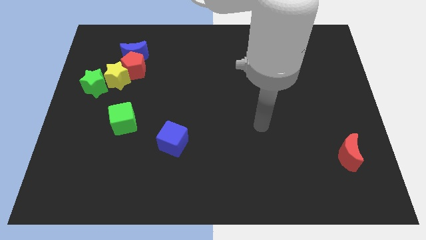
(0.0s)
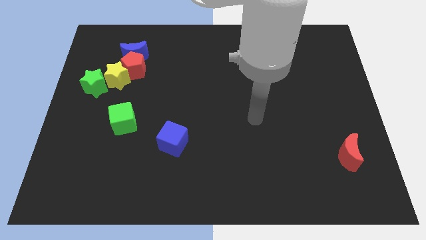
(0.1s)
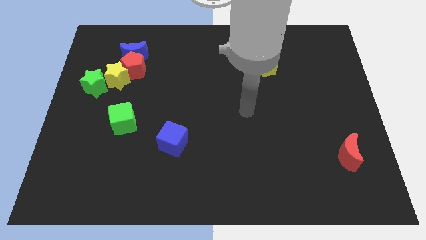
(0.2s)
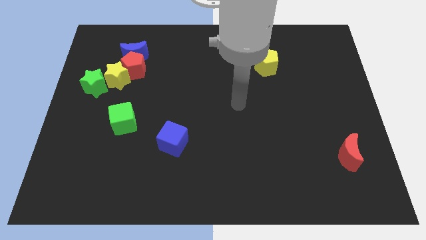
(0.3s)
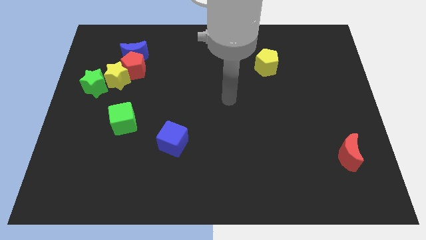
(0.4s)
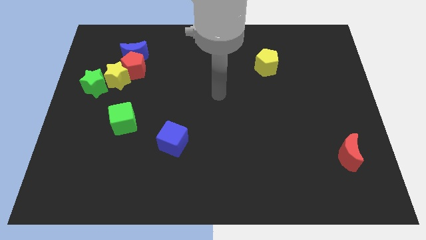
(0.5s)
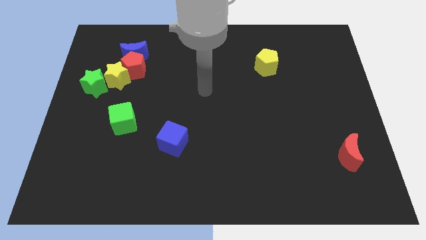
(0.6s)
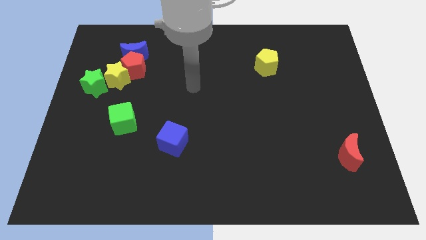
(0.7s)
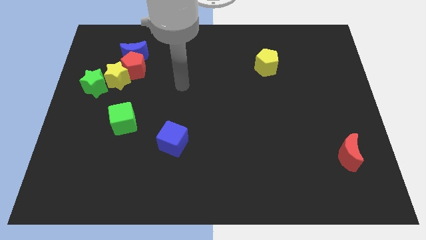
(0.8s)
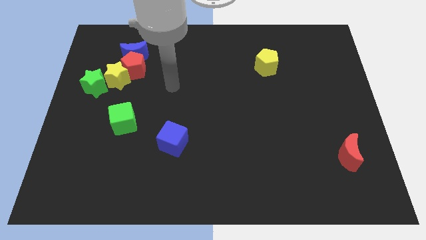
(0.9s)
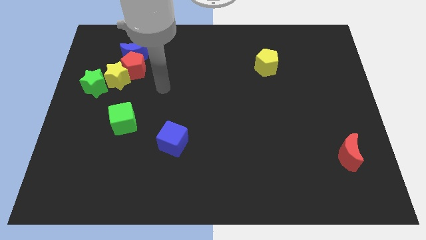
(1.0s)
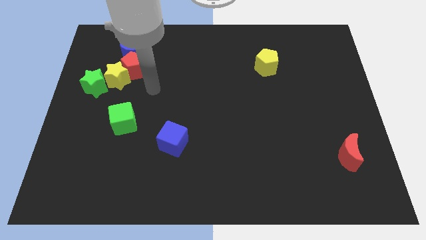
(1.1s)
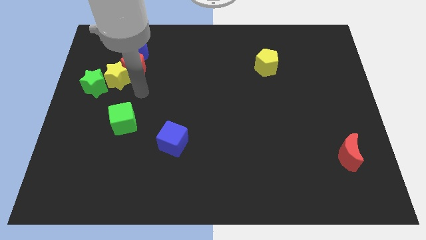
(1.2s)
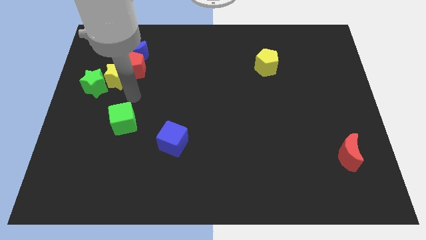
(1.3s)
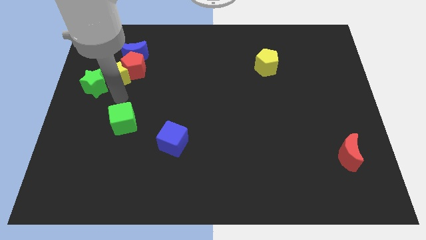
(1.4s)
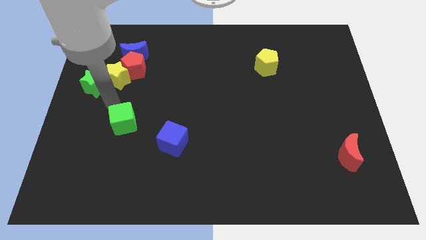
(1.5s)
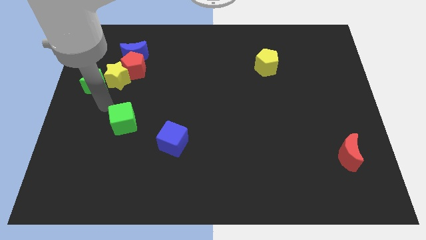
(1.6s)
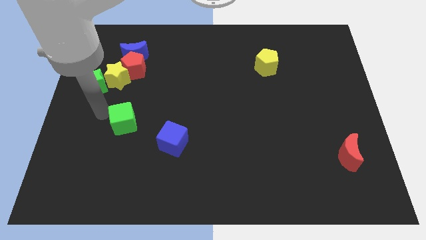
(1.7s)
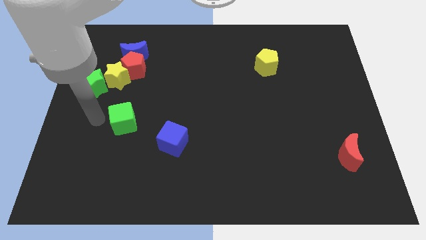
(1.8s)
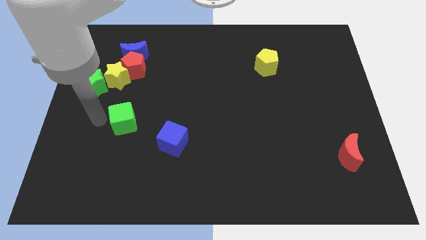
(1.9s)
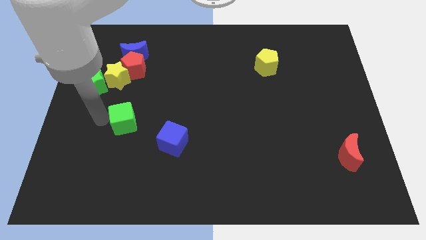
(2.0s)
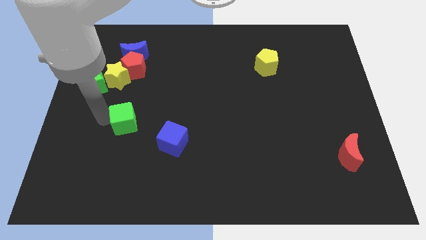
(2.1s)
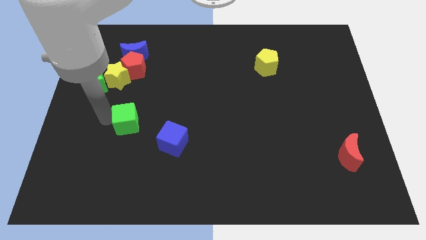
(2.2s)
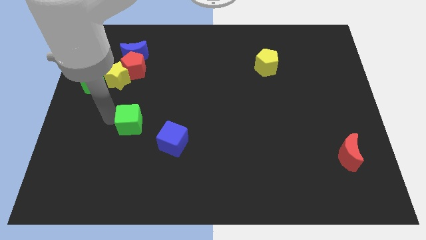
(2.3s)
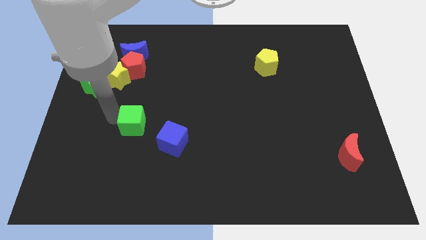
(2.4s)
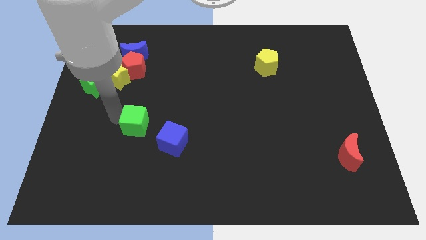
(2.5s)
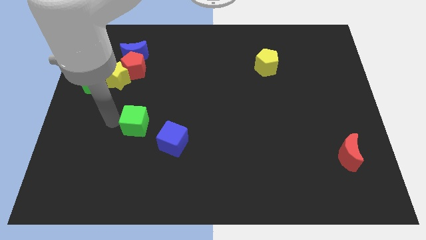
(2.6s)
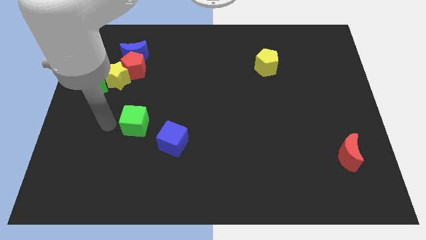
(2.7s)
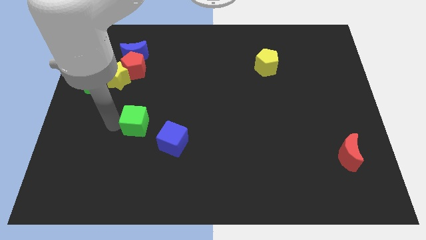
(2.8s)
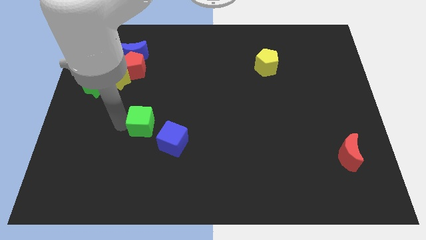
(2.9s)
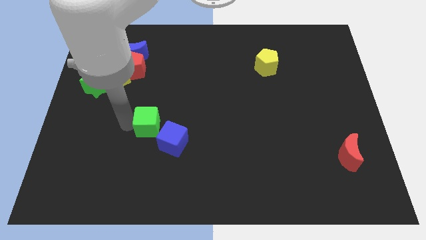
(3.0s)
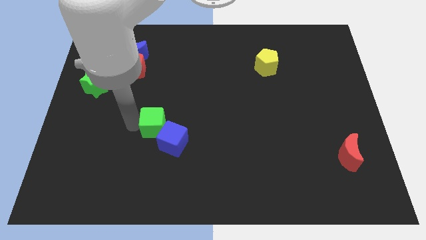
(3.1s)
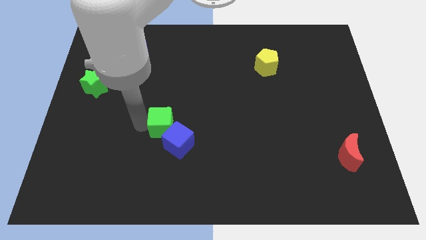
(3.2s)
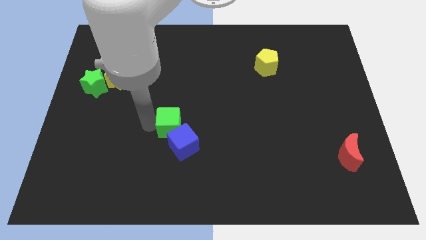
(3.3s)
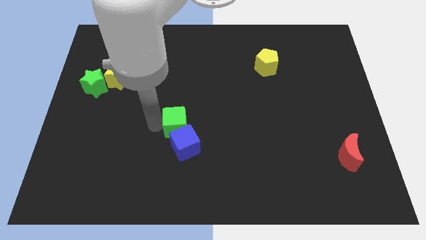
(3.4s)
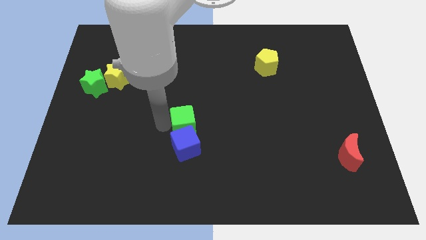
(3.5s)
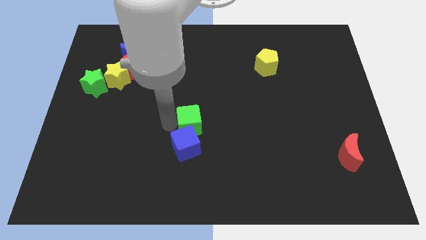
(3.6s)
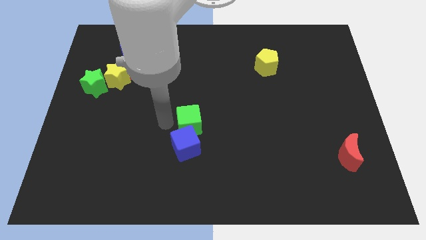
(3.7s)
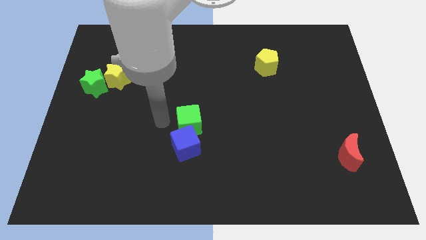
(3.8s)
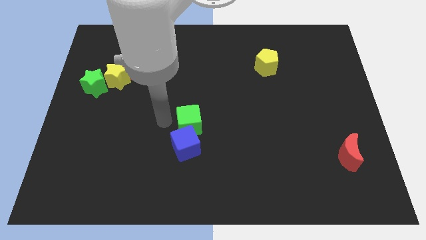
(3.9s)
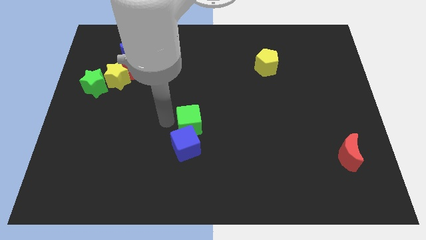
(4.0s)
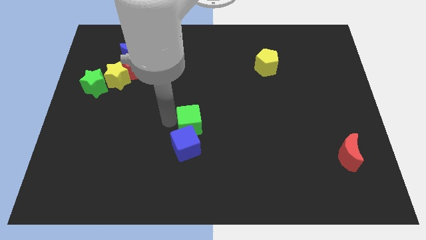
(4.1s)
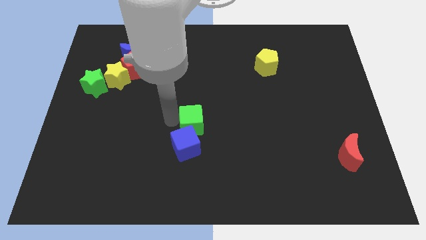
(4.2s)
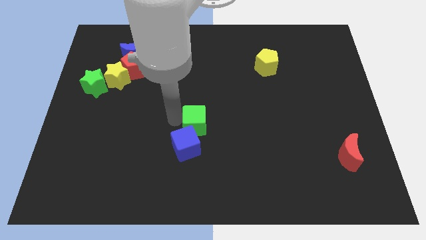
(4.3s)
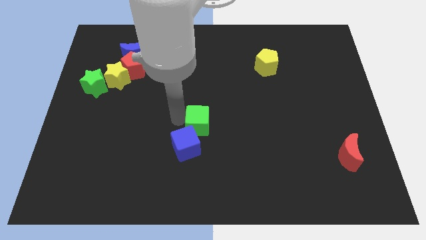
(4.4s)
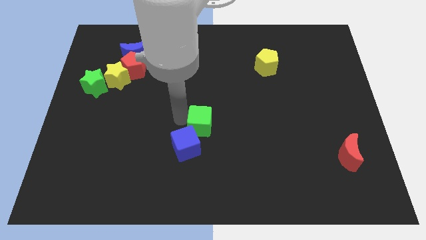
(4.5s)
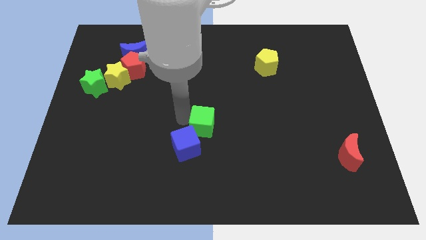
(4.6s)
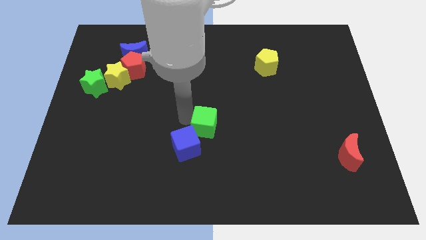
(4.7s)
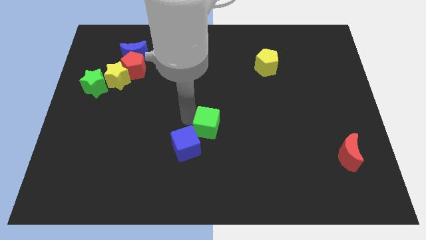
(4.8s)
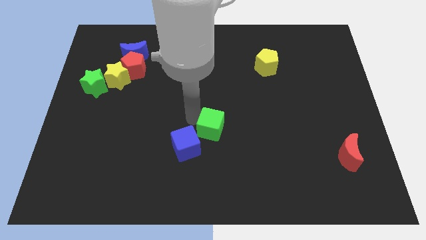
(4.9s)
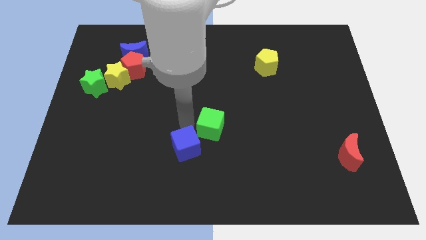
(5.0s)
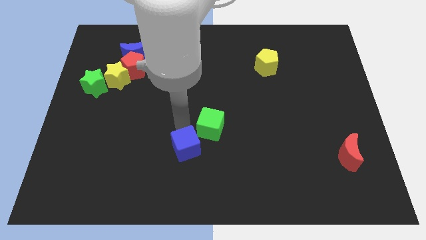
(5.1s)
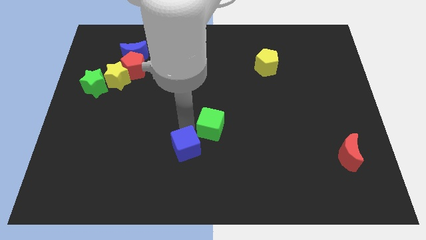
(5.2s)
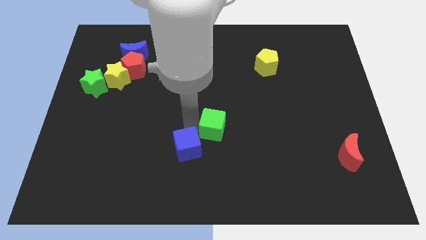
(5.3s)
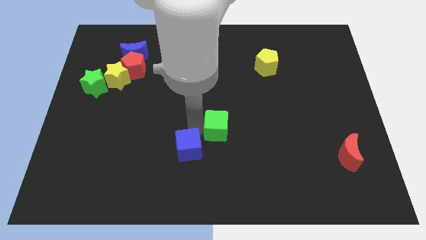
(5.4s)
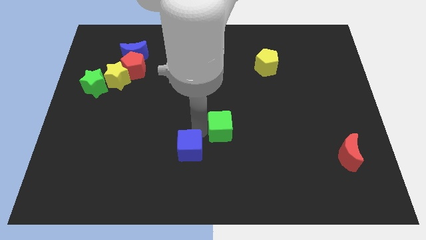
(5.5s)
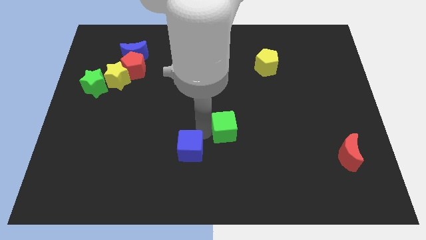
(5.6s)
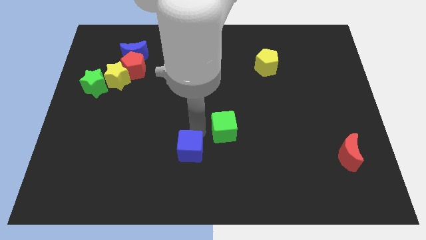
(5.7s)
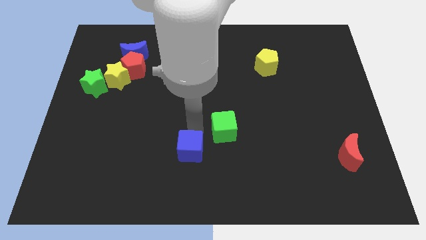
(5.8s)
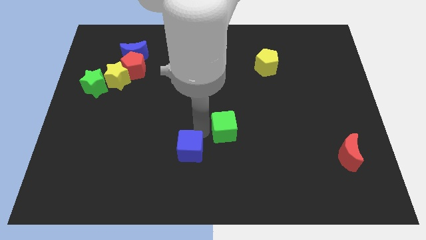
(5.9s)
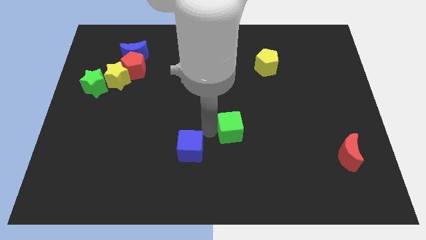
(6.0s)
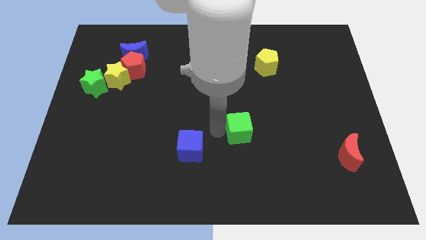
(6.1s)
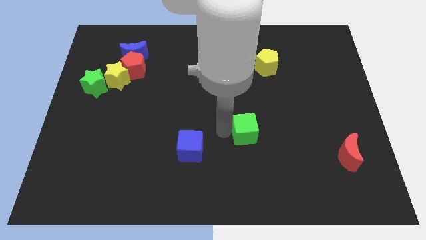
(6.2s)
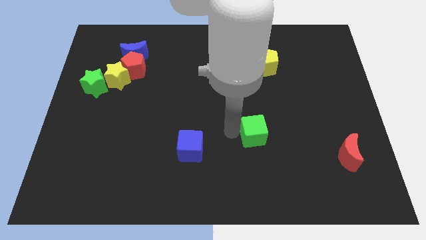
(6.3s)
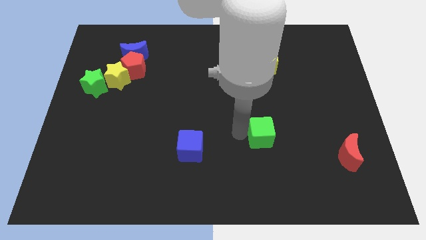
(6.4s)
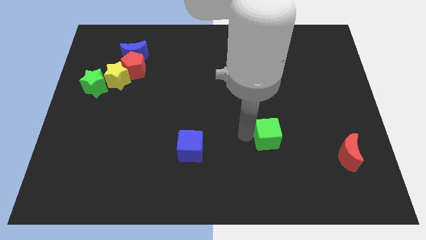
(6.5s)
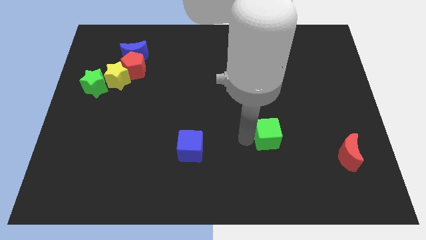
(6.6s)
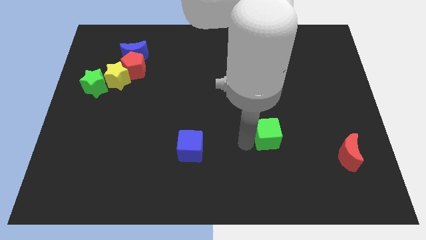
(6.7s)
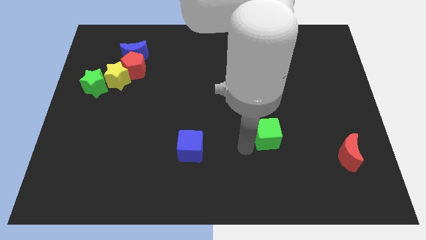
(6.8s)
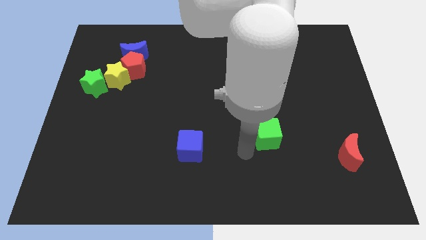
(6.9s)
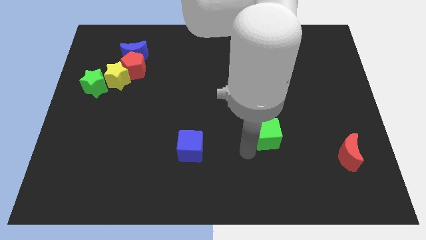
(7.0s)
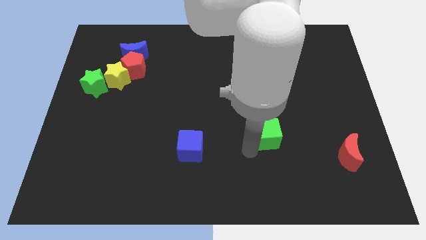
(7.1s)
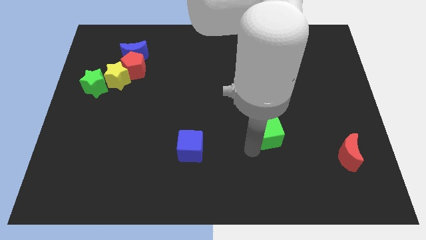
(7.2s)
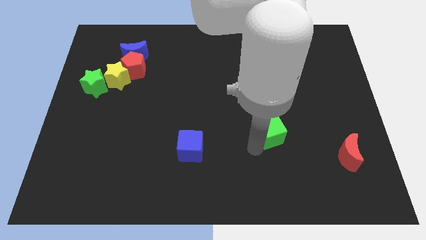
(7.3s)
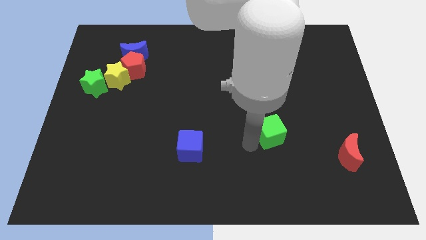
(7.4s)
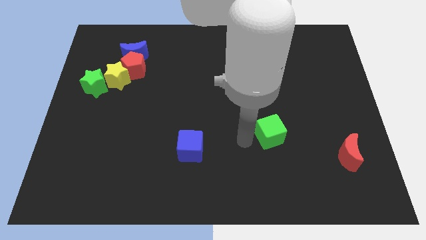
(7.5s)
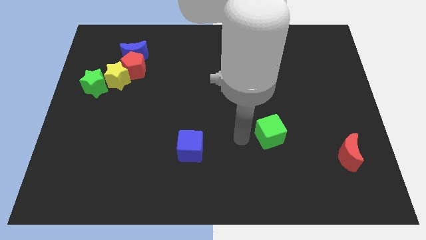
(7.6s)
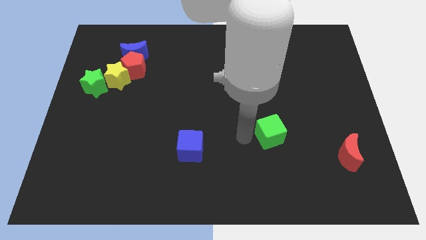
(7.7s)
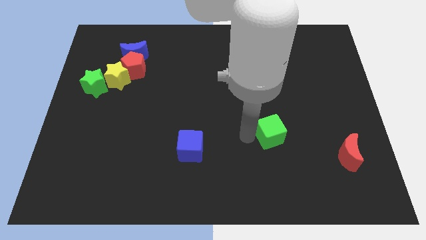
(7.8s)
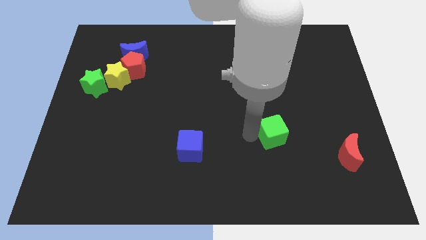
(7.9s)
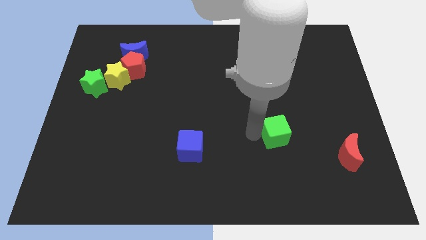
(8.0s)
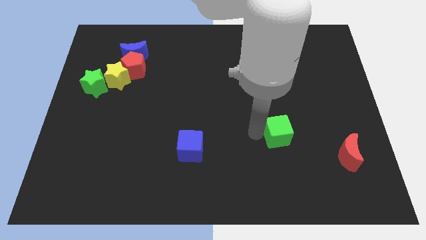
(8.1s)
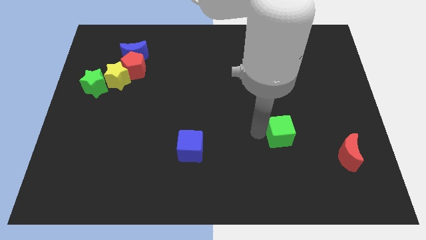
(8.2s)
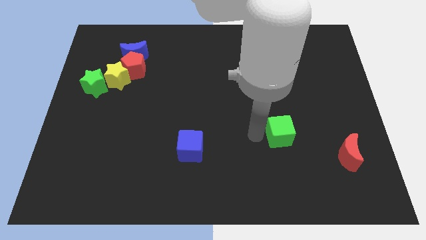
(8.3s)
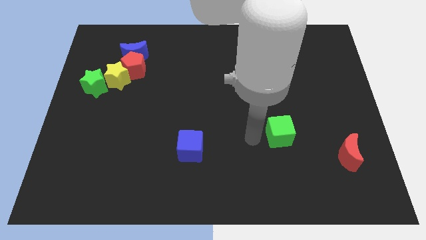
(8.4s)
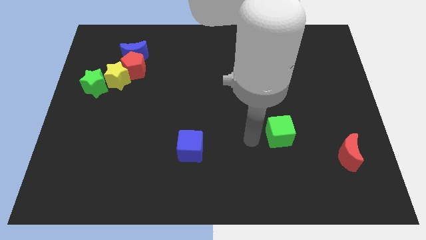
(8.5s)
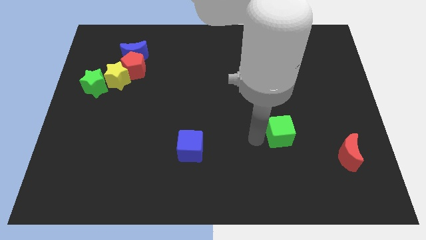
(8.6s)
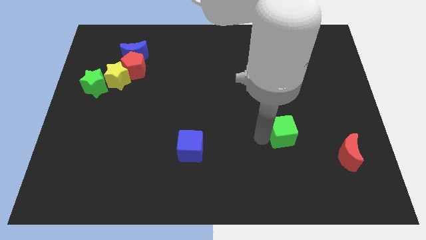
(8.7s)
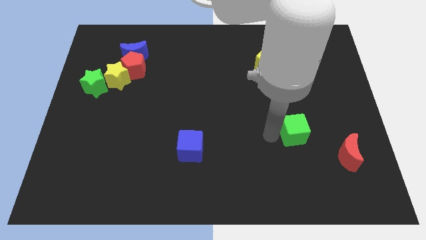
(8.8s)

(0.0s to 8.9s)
move the green cube to the top left of the red moon
